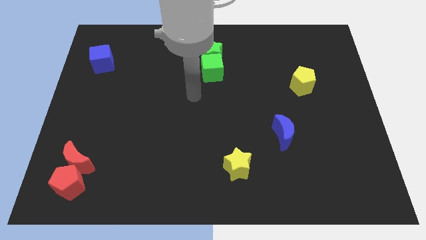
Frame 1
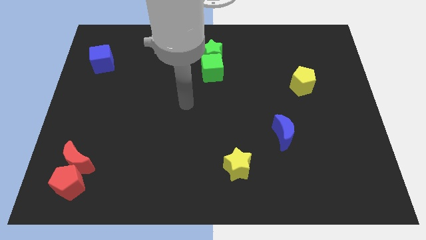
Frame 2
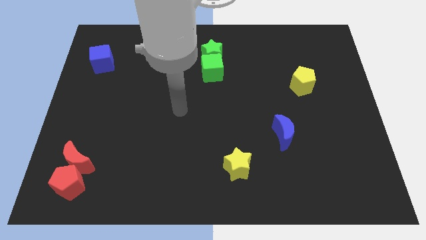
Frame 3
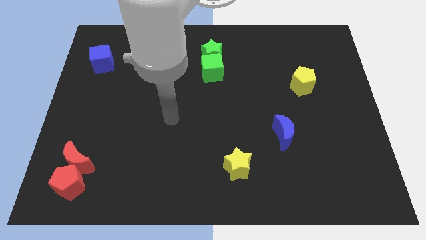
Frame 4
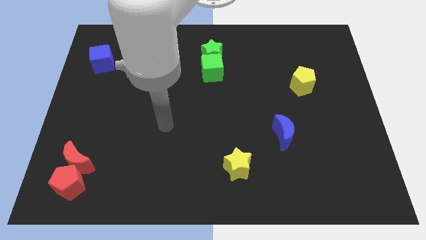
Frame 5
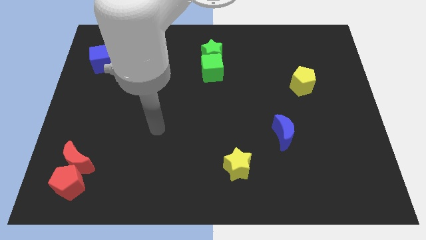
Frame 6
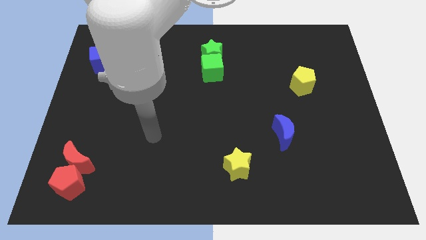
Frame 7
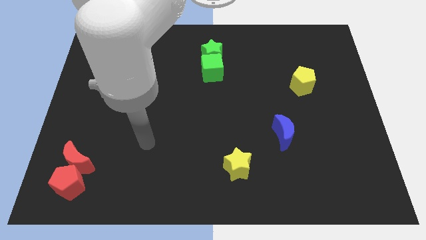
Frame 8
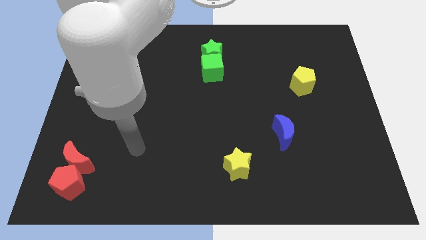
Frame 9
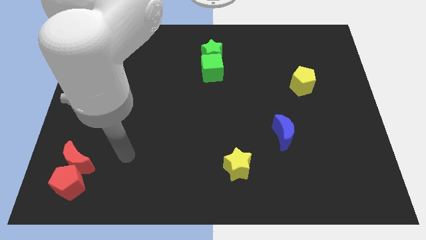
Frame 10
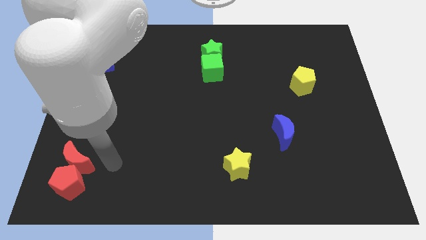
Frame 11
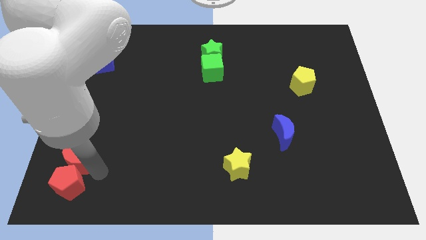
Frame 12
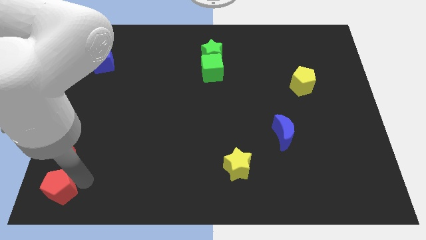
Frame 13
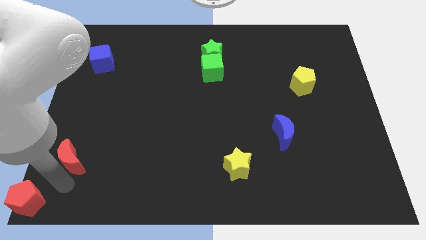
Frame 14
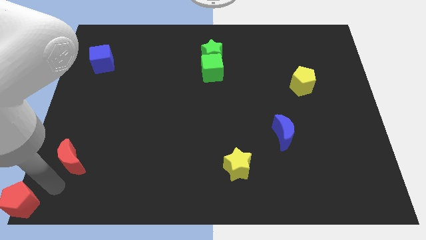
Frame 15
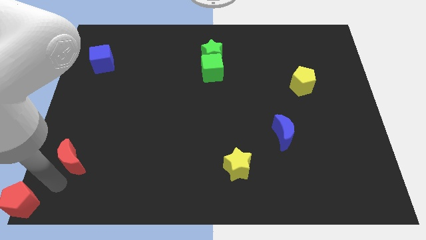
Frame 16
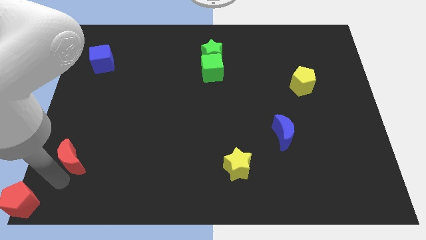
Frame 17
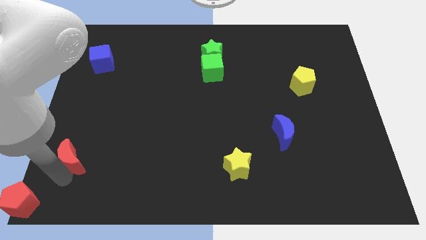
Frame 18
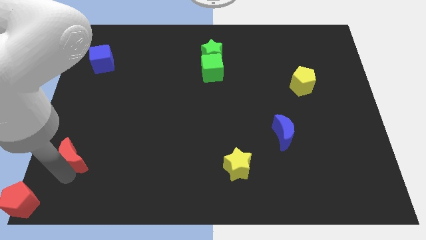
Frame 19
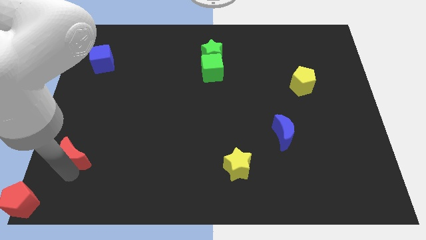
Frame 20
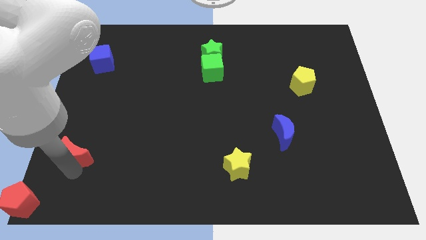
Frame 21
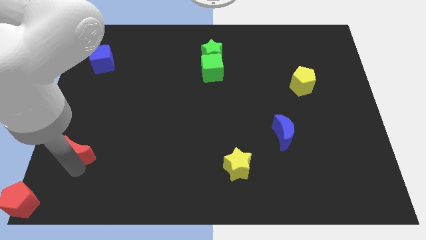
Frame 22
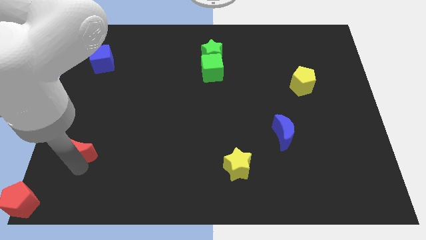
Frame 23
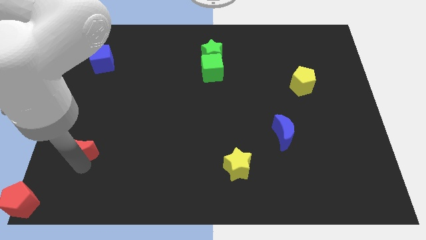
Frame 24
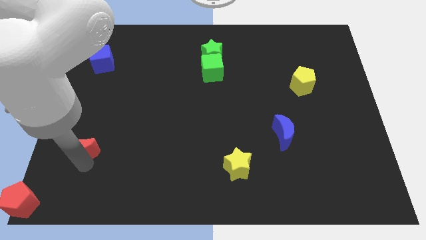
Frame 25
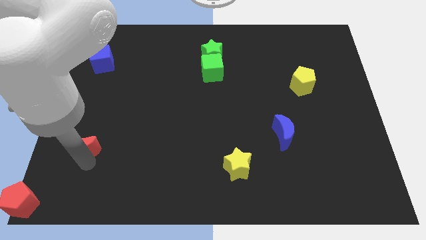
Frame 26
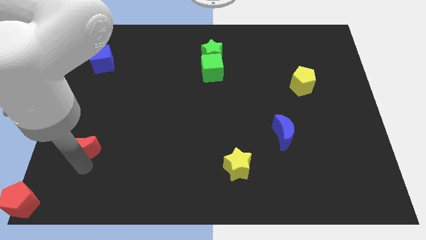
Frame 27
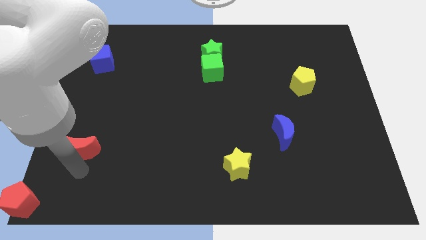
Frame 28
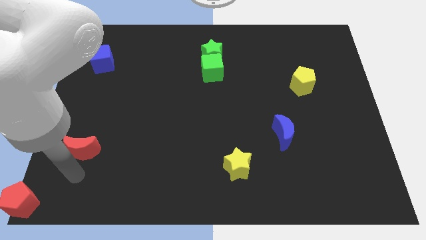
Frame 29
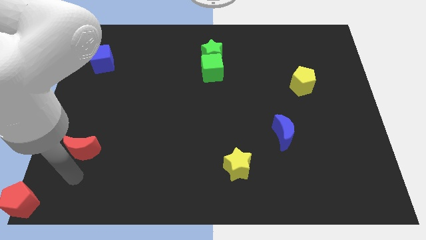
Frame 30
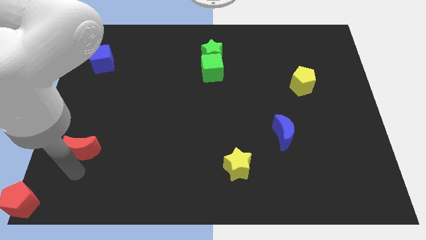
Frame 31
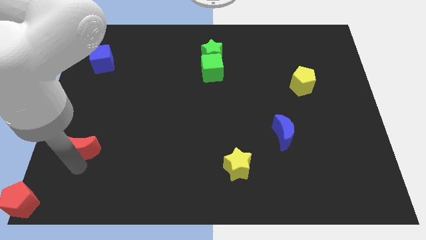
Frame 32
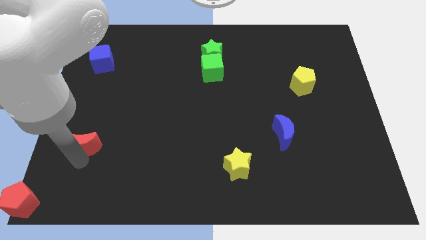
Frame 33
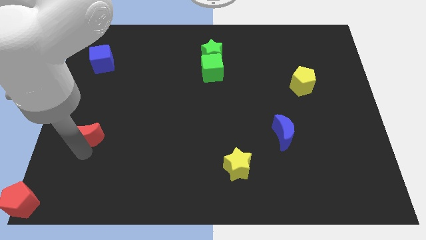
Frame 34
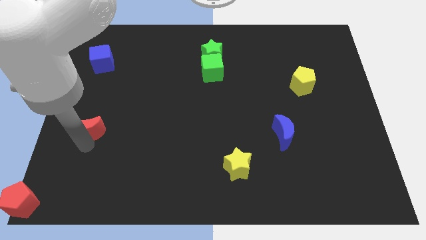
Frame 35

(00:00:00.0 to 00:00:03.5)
slightly push the red moon upwards

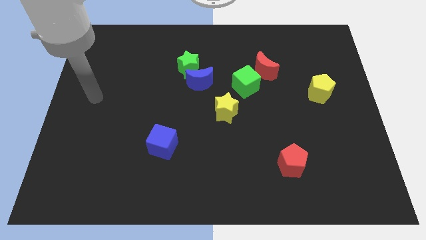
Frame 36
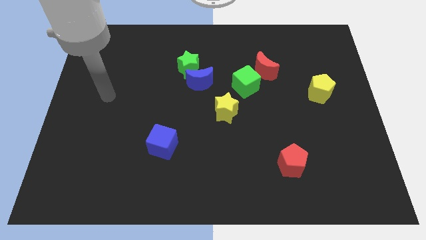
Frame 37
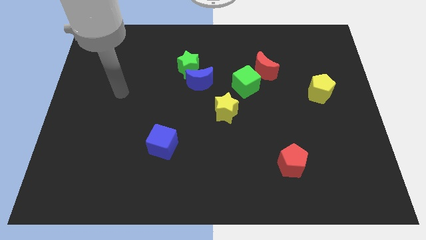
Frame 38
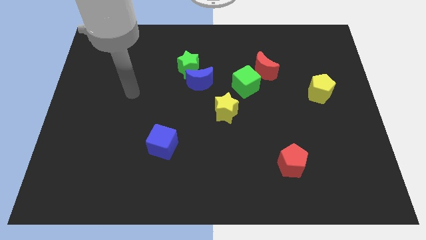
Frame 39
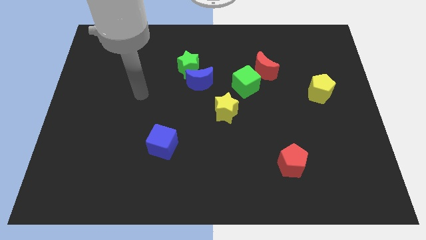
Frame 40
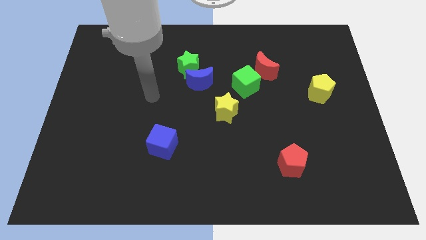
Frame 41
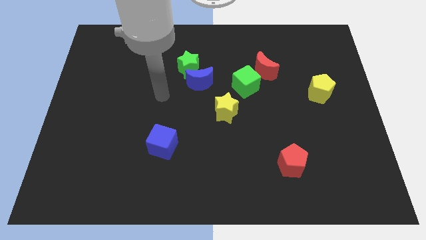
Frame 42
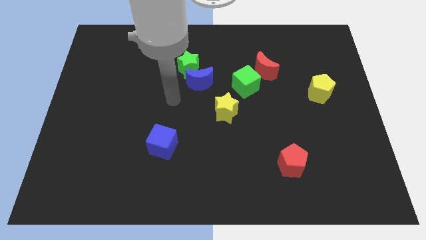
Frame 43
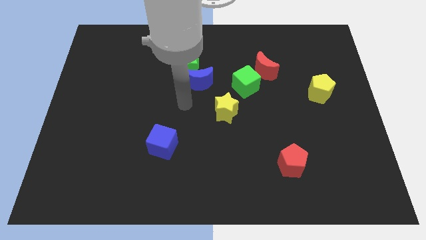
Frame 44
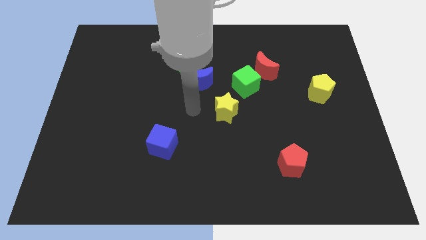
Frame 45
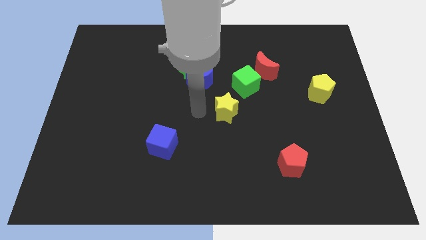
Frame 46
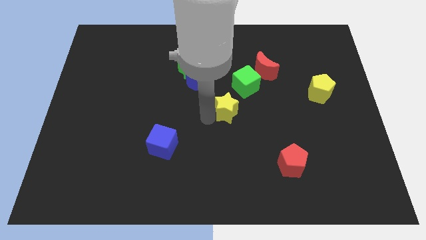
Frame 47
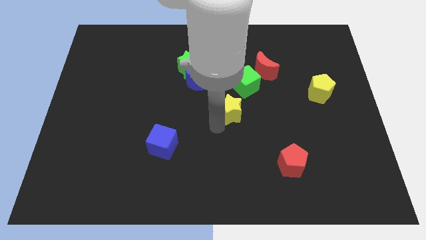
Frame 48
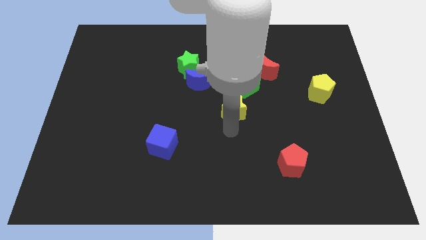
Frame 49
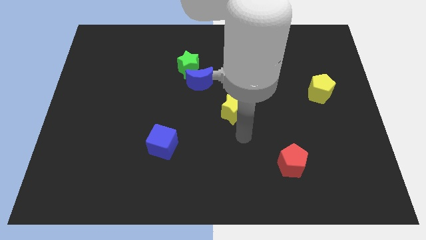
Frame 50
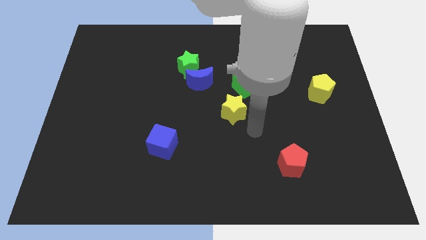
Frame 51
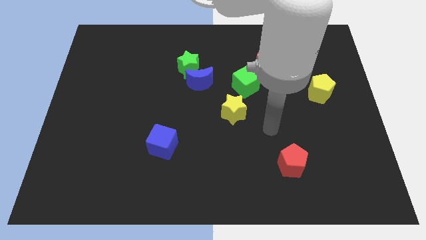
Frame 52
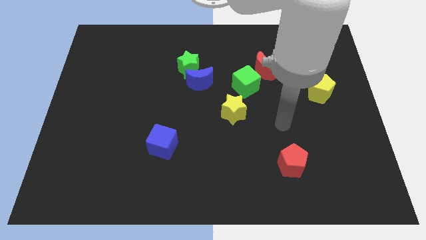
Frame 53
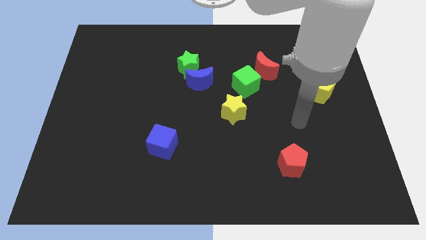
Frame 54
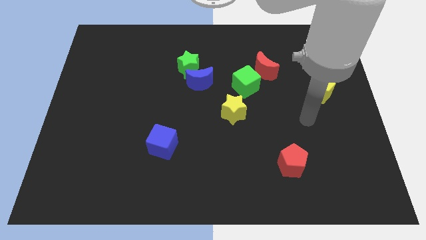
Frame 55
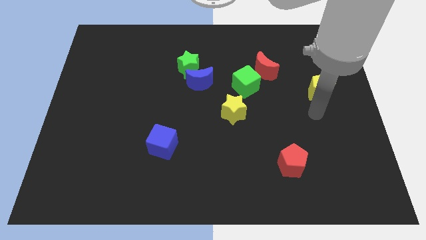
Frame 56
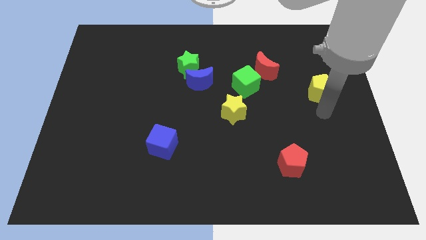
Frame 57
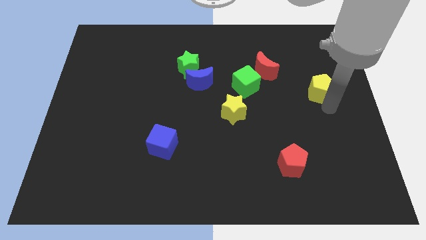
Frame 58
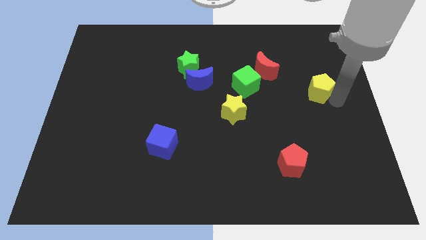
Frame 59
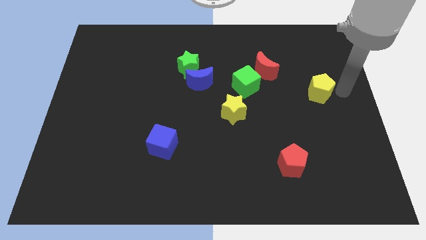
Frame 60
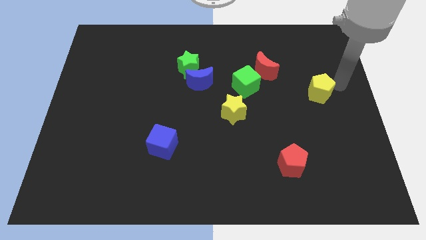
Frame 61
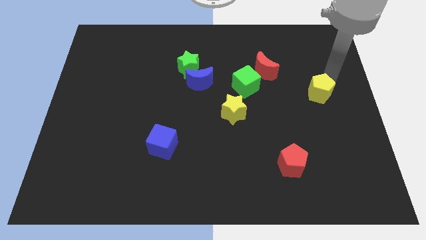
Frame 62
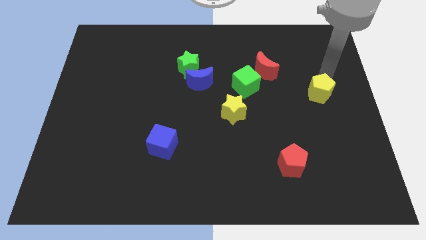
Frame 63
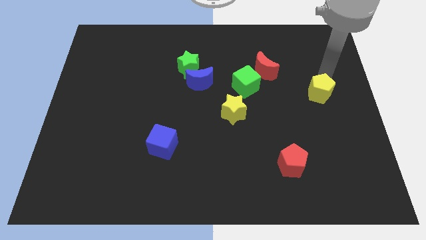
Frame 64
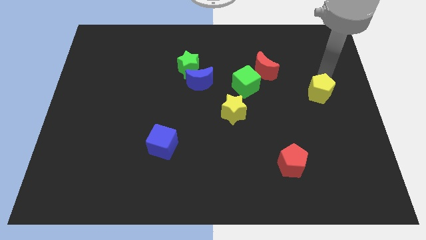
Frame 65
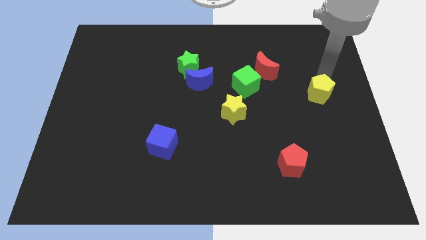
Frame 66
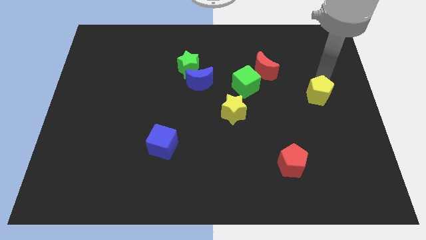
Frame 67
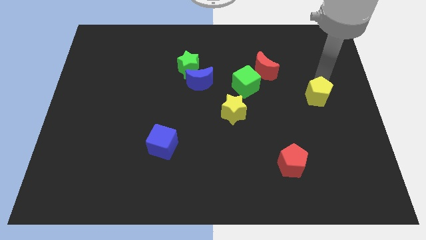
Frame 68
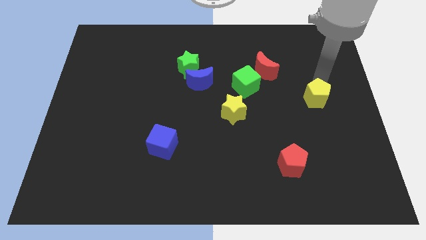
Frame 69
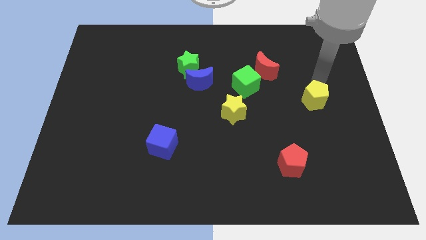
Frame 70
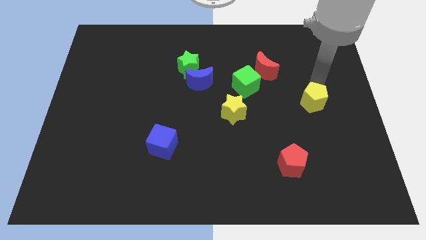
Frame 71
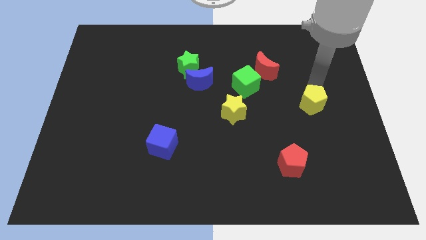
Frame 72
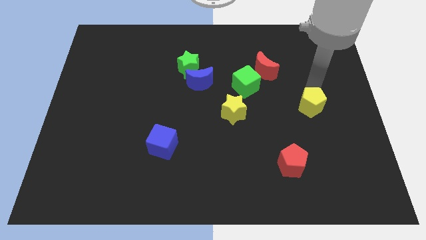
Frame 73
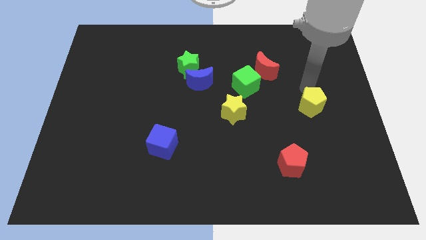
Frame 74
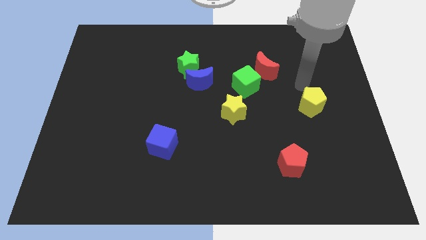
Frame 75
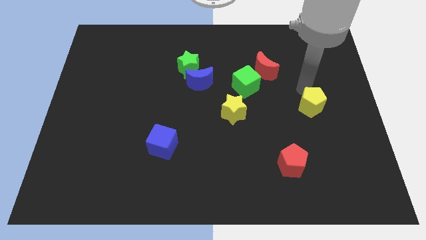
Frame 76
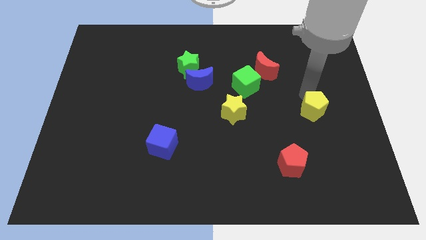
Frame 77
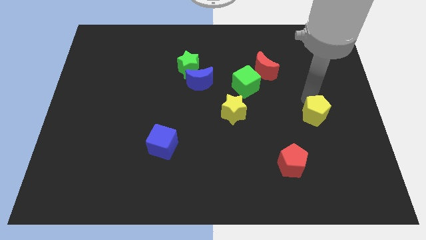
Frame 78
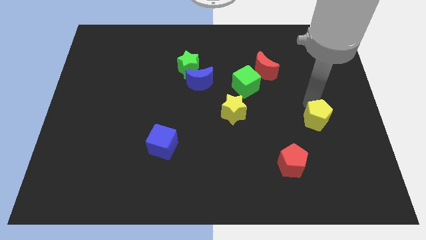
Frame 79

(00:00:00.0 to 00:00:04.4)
slide the yellow pentagon downwards a bit

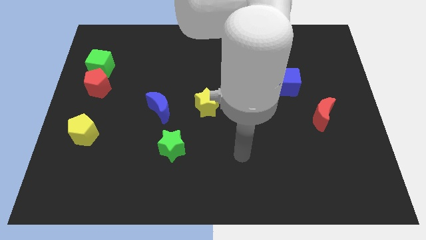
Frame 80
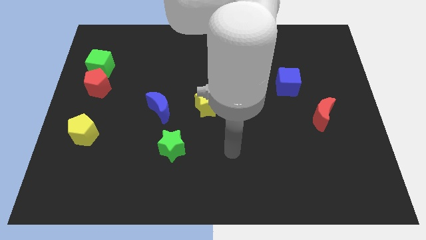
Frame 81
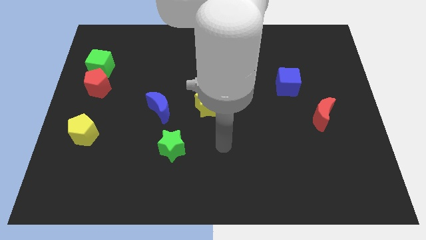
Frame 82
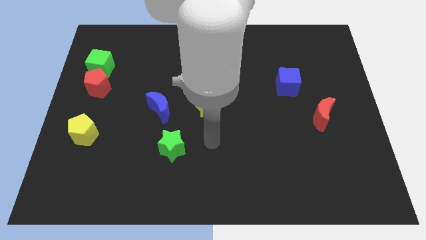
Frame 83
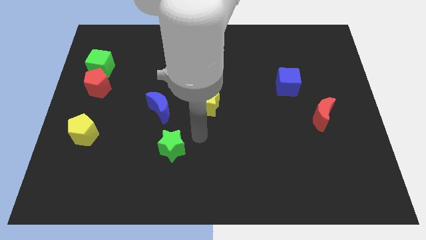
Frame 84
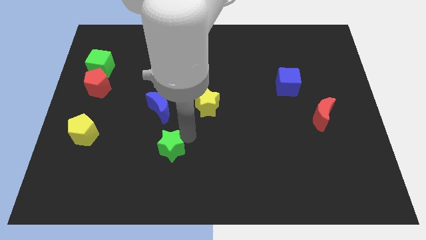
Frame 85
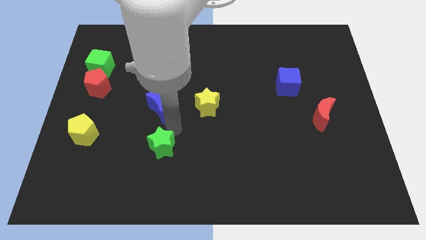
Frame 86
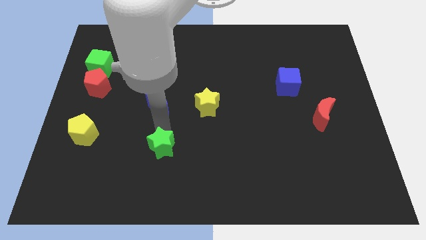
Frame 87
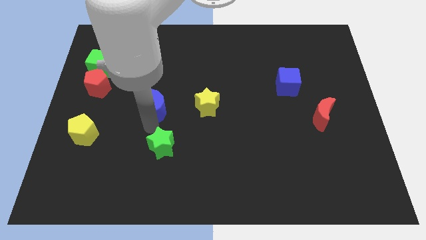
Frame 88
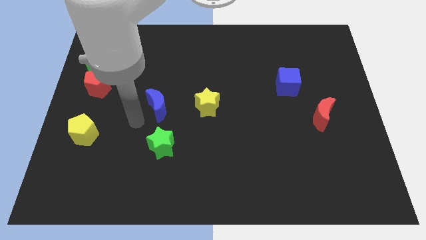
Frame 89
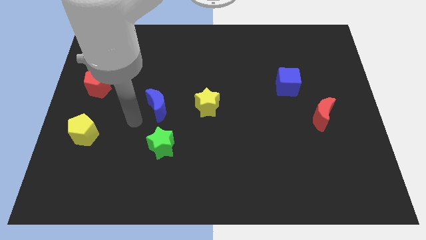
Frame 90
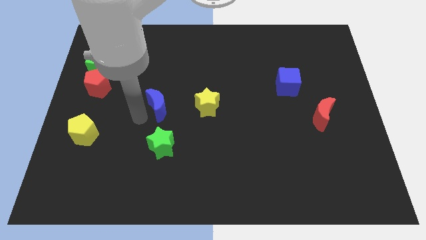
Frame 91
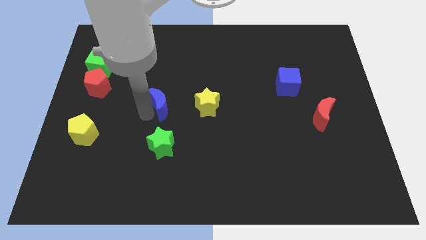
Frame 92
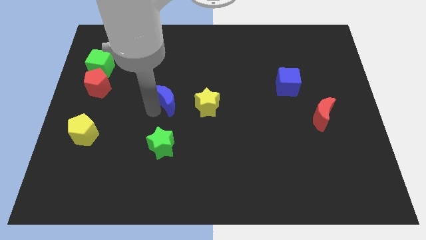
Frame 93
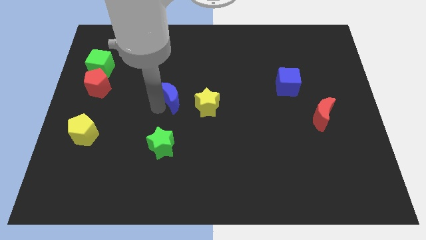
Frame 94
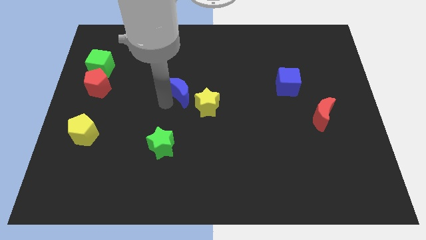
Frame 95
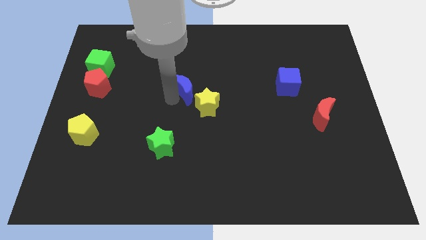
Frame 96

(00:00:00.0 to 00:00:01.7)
move the blue moon diagonally up and to the right a little bit
